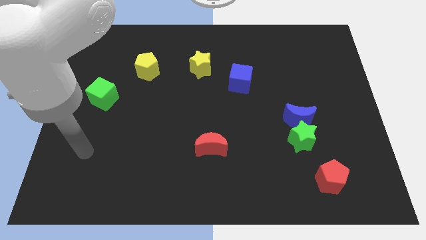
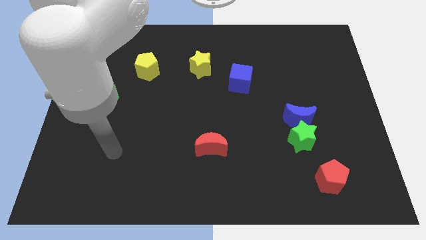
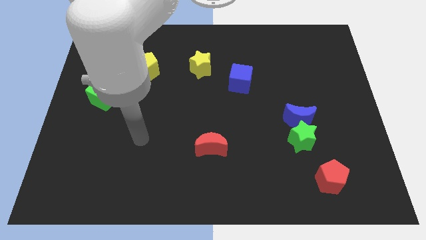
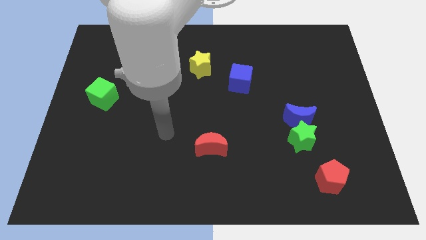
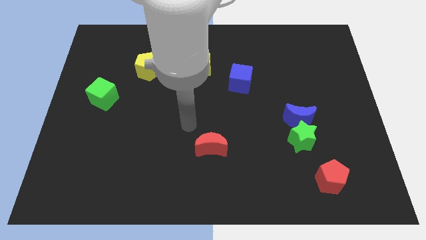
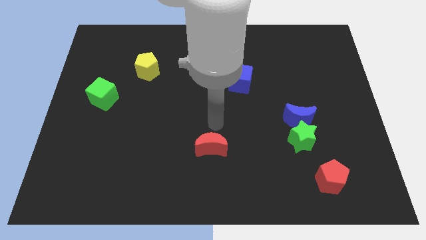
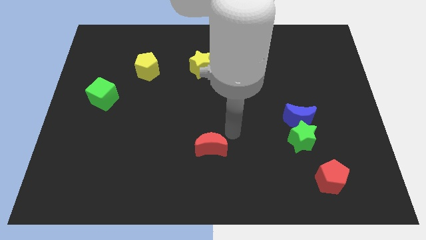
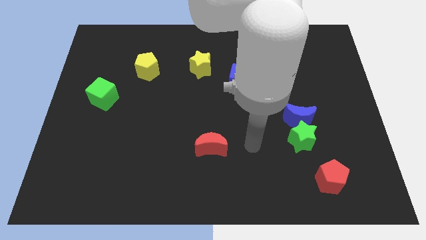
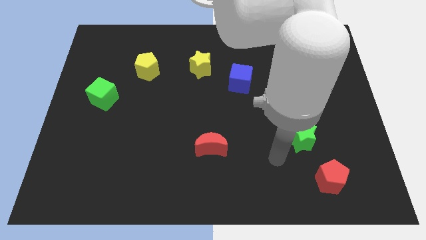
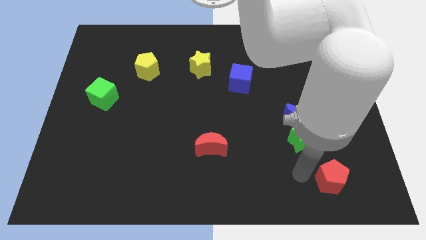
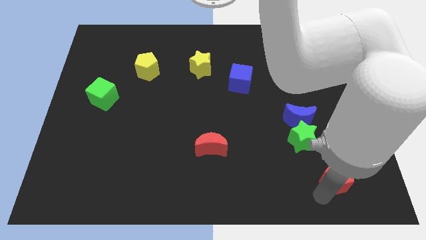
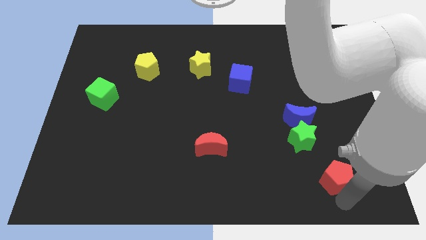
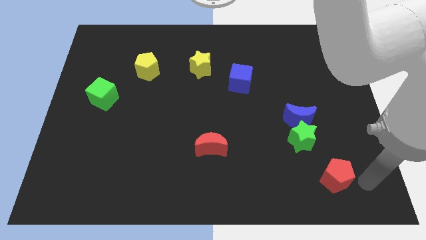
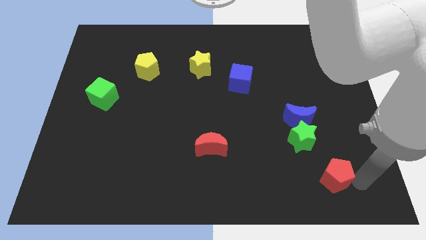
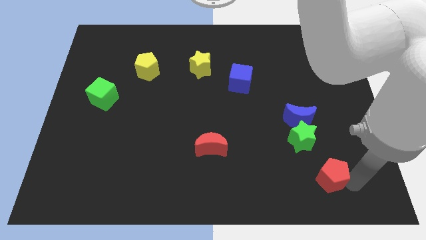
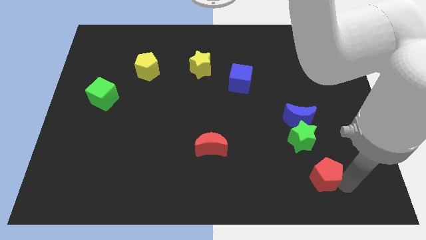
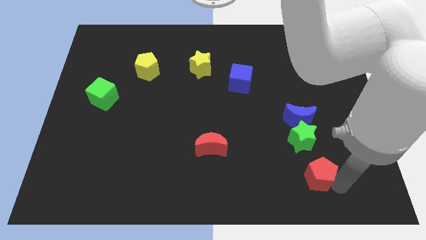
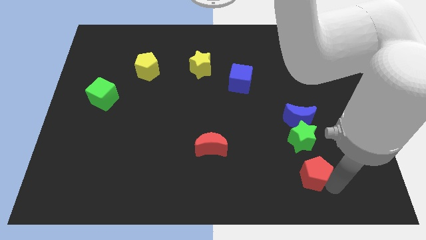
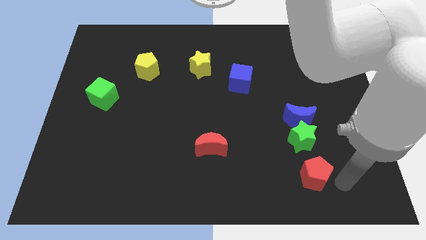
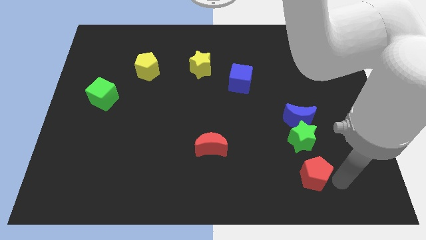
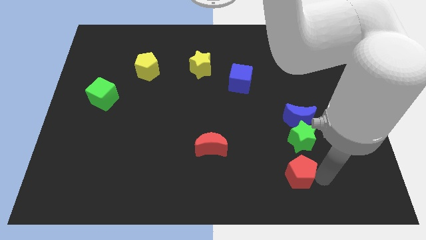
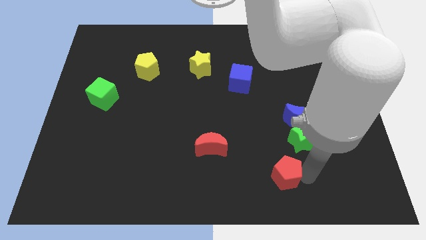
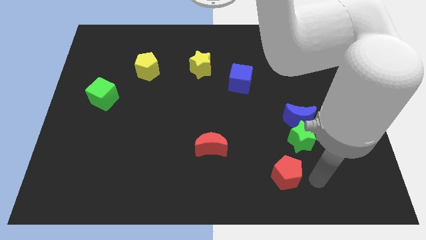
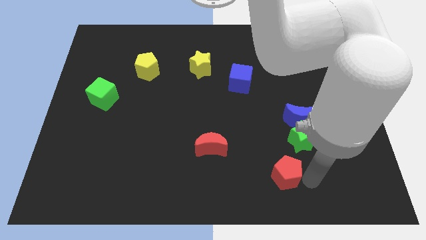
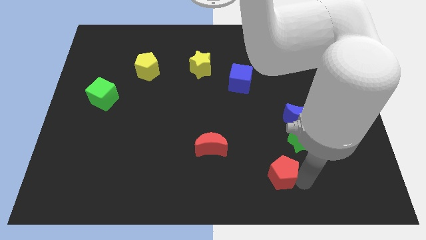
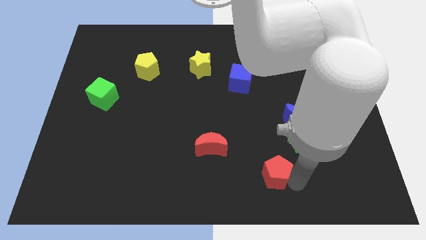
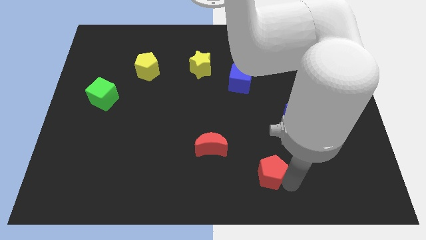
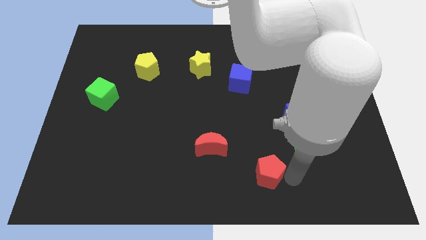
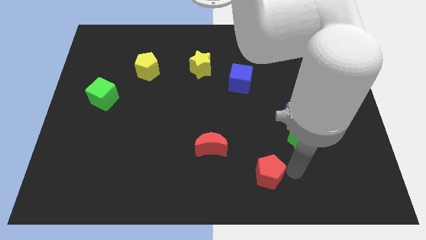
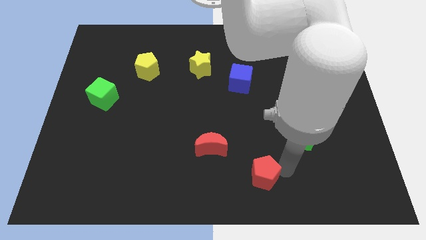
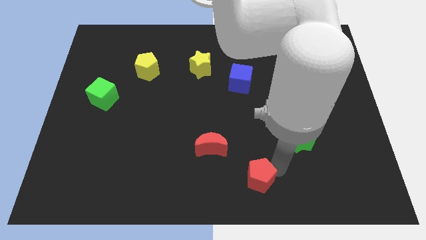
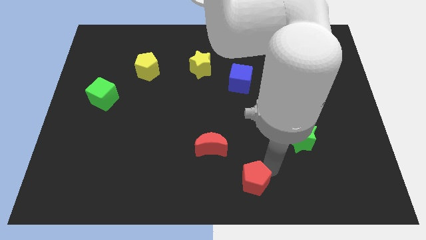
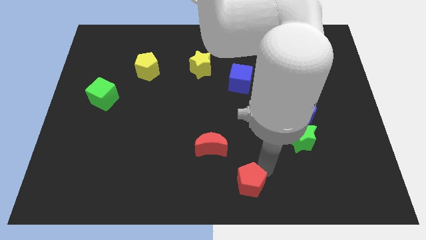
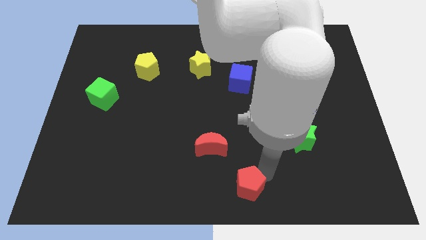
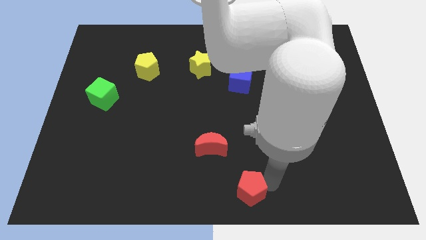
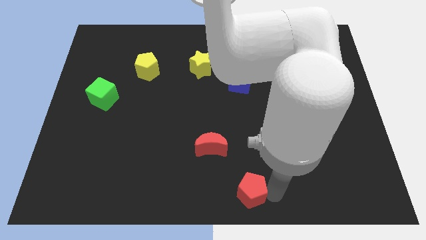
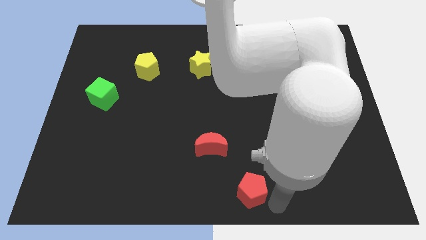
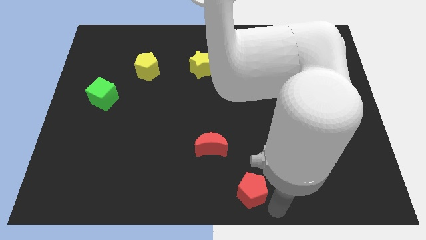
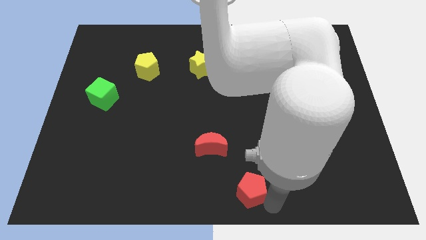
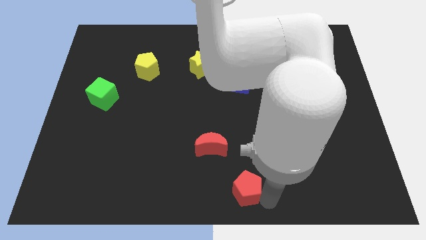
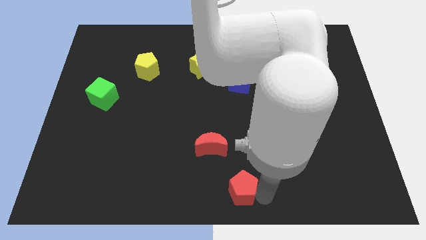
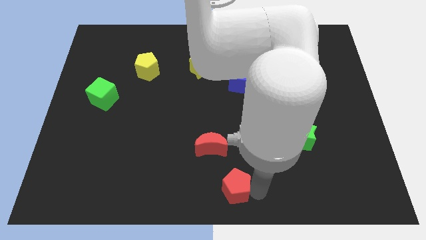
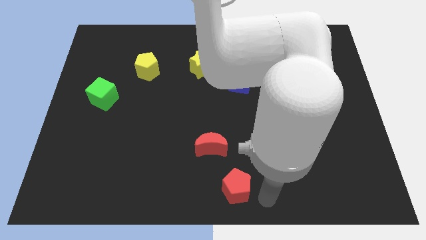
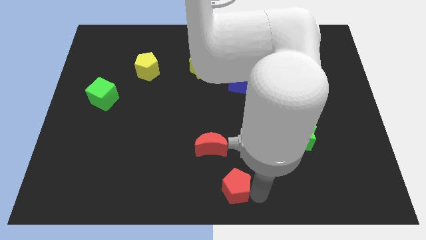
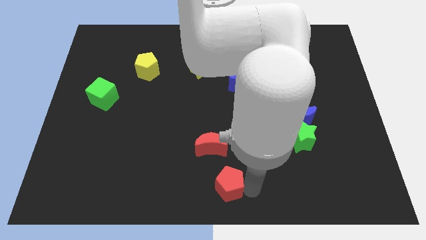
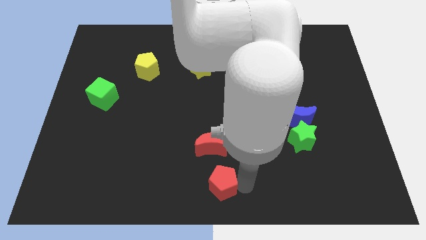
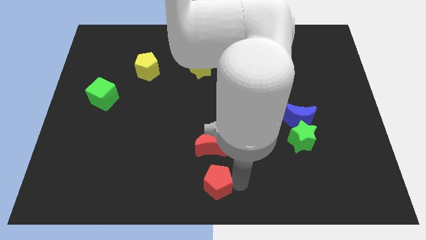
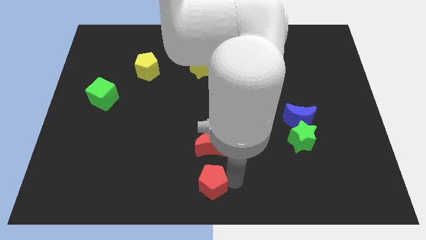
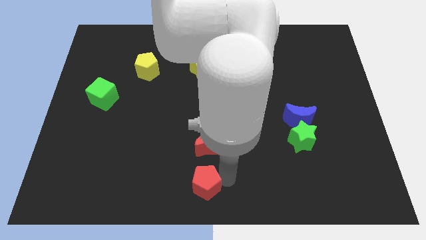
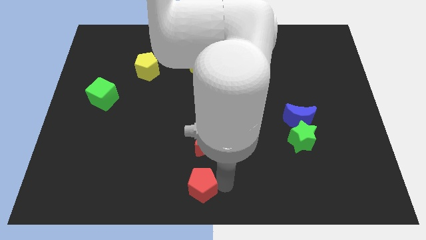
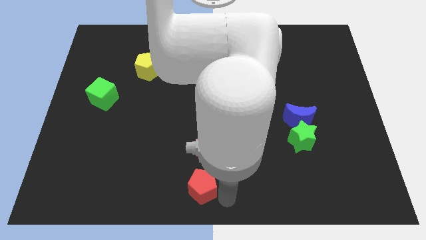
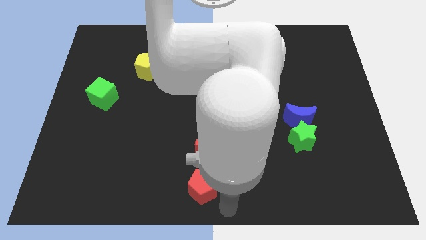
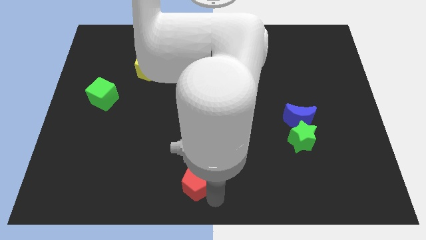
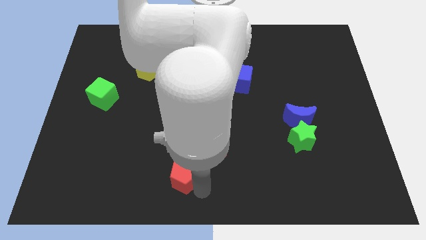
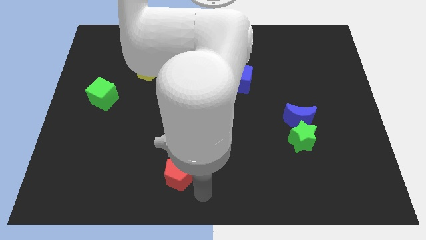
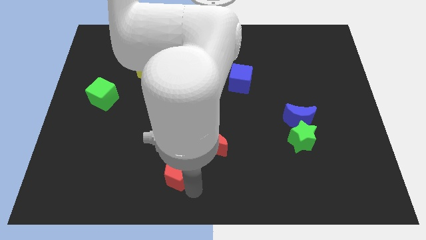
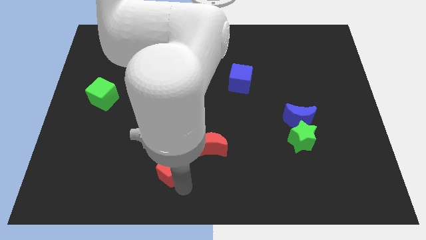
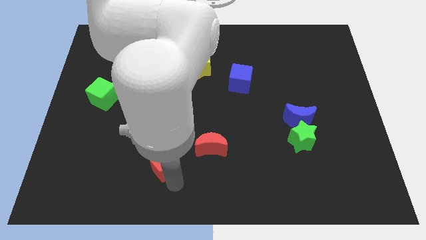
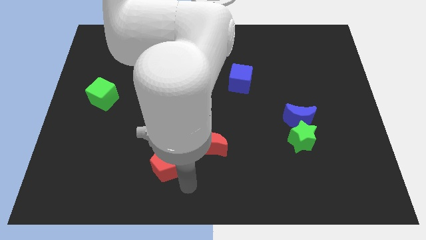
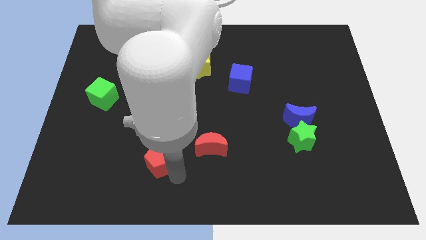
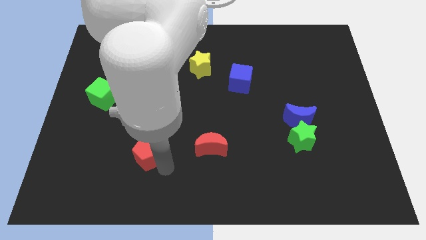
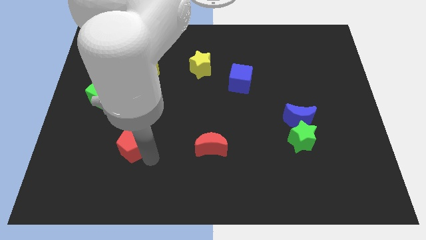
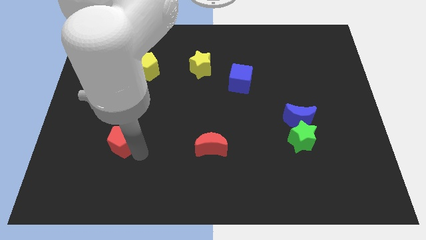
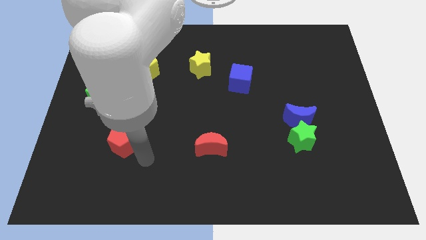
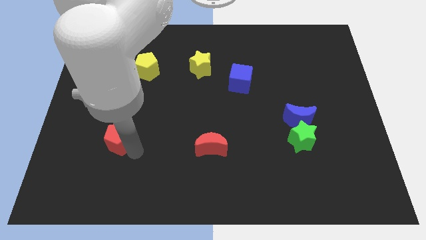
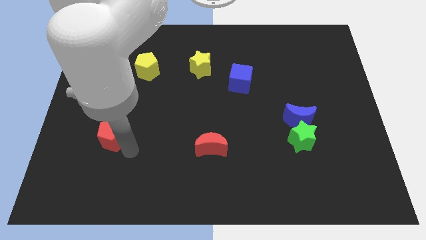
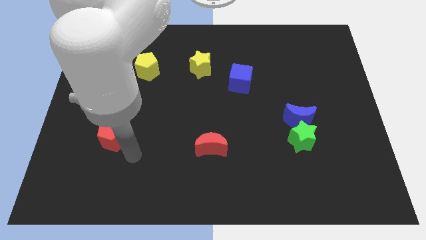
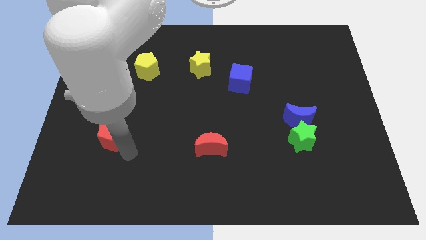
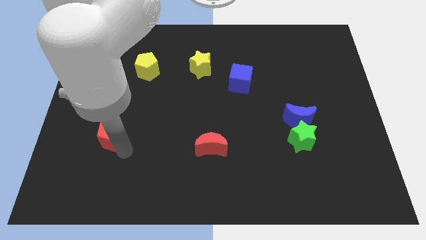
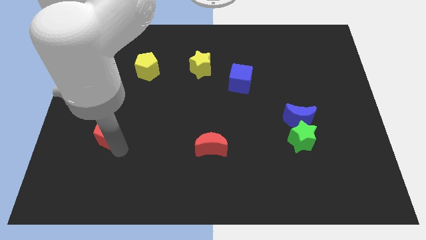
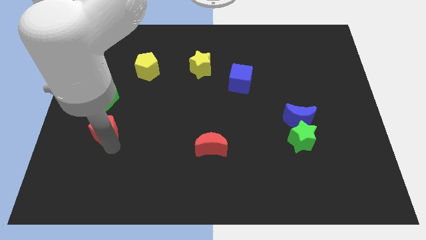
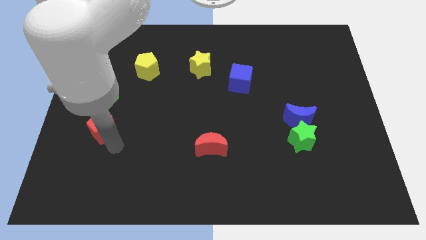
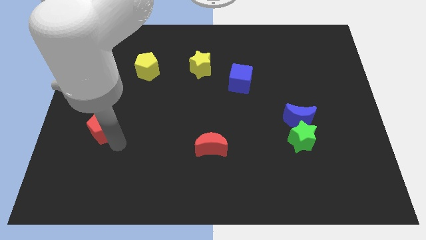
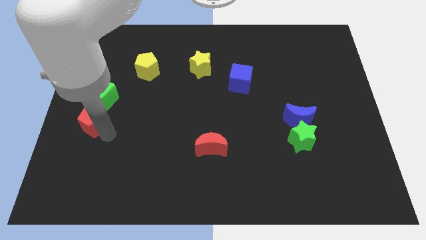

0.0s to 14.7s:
put the red pentagon to the left side of the board
